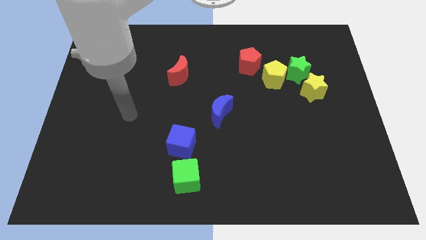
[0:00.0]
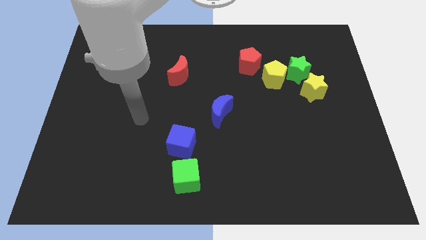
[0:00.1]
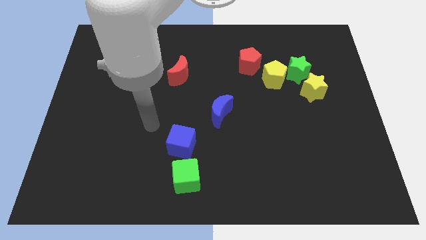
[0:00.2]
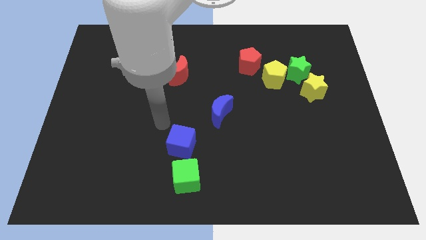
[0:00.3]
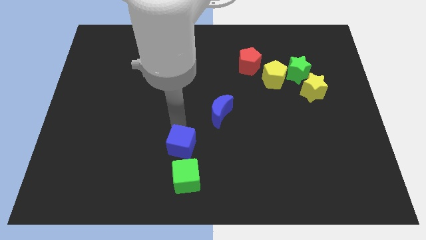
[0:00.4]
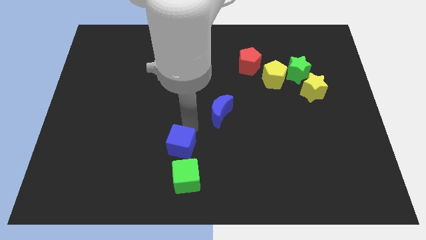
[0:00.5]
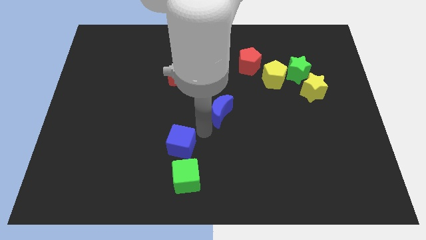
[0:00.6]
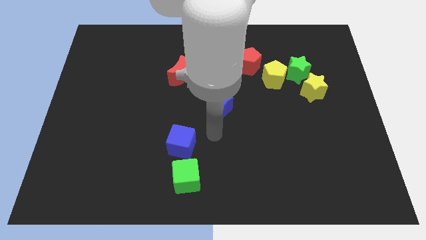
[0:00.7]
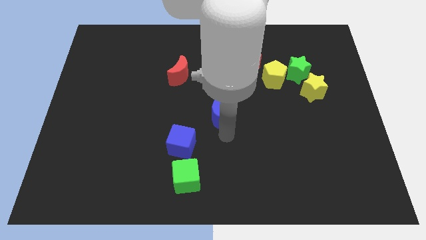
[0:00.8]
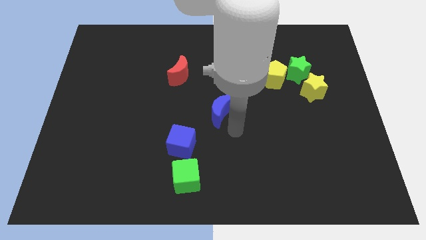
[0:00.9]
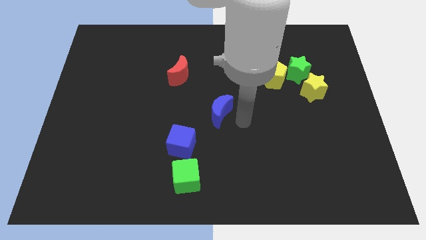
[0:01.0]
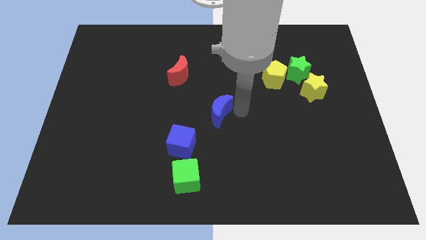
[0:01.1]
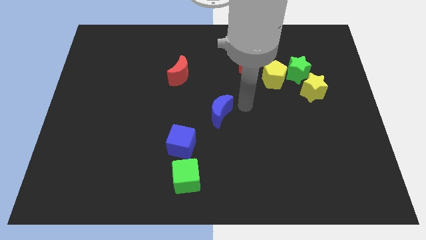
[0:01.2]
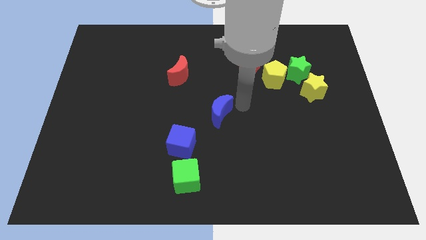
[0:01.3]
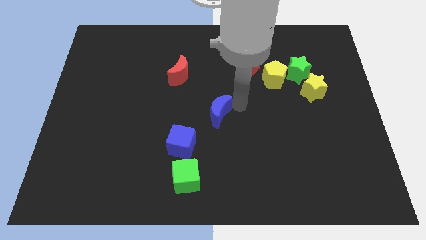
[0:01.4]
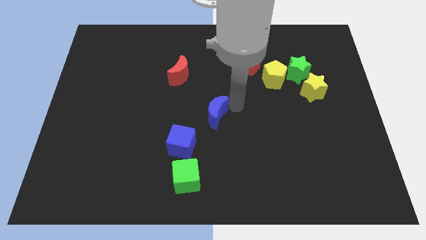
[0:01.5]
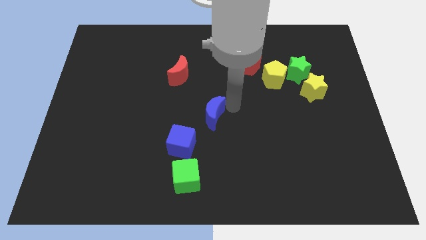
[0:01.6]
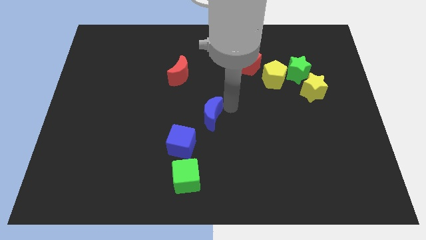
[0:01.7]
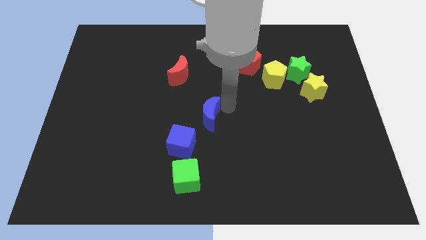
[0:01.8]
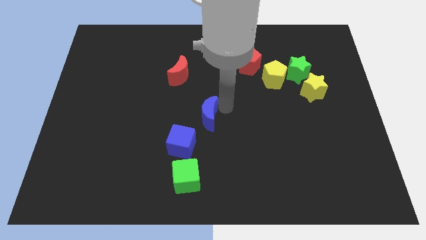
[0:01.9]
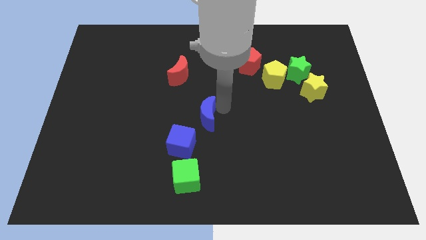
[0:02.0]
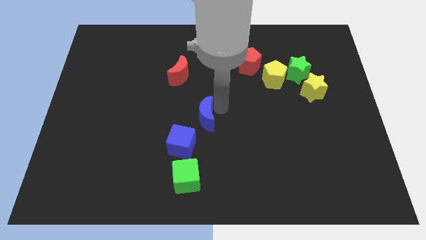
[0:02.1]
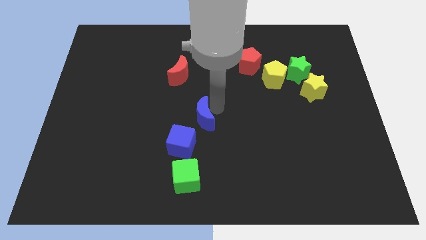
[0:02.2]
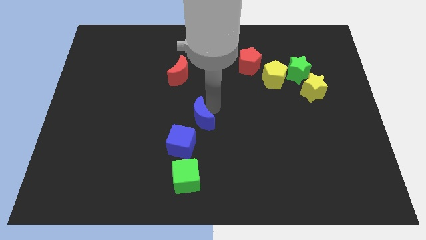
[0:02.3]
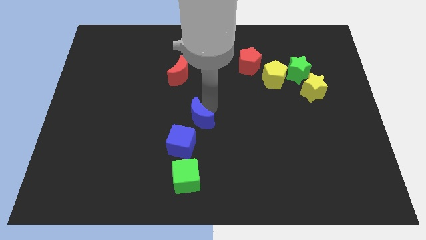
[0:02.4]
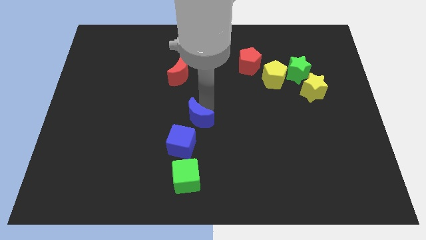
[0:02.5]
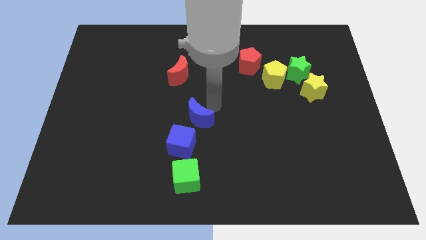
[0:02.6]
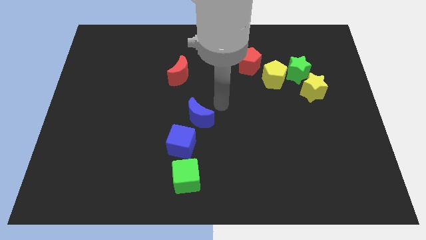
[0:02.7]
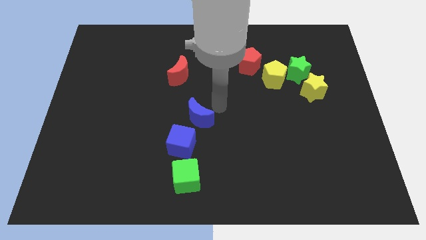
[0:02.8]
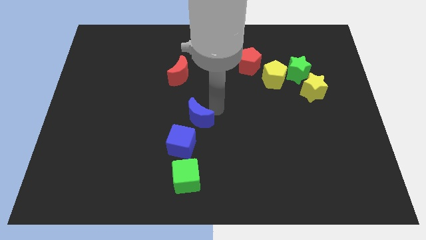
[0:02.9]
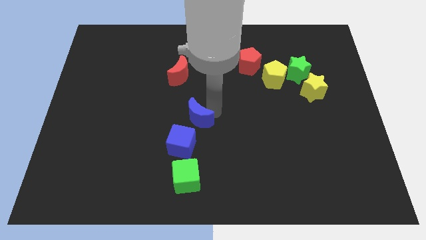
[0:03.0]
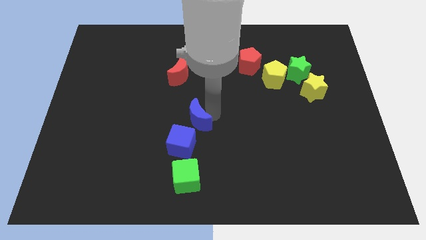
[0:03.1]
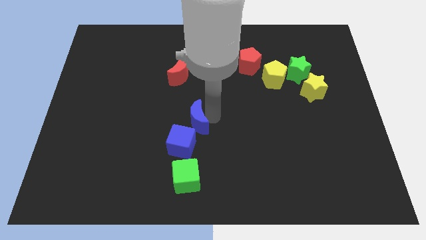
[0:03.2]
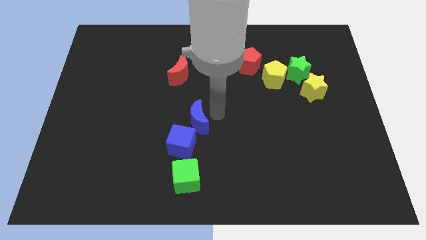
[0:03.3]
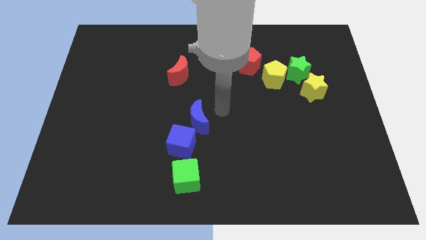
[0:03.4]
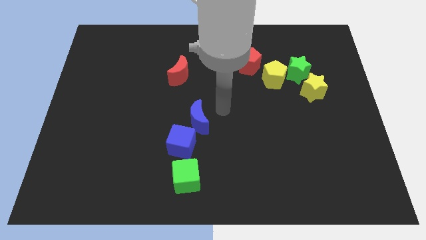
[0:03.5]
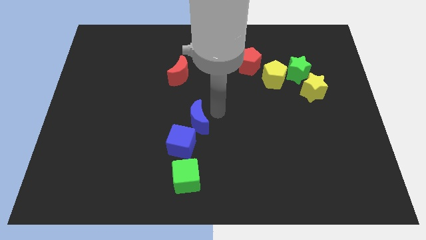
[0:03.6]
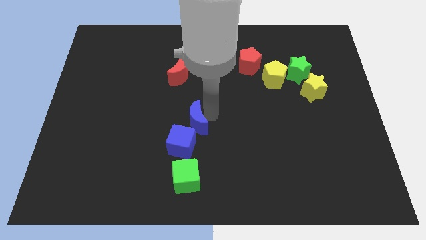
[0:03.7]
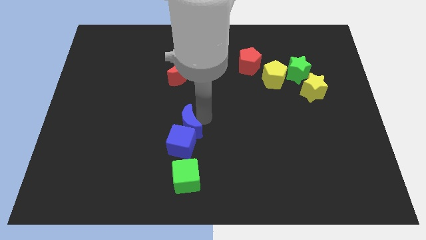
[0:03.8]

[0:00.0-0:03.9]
slide the blue moon down and then to the left a little bit

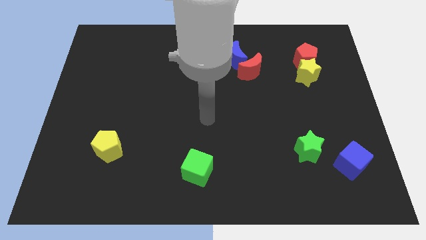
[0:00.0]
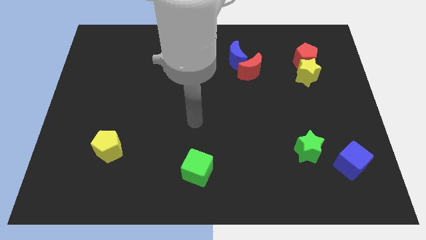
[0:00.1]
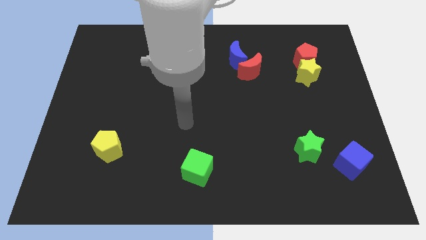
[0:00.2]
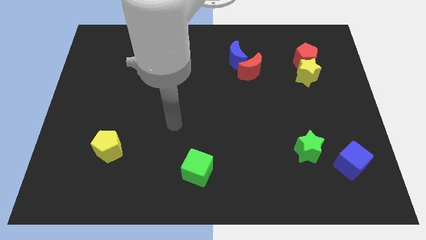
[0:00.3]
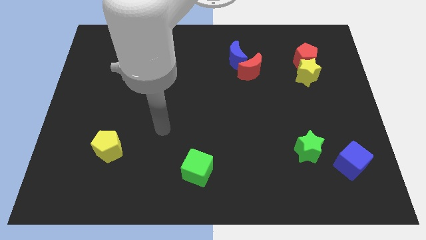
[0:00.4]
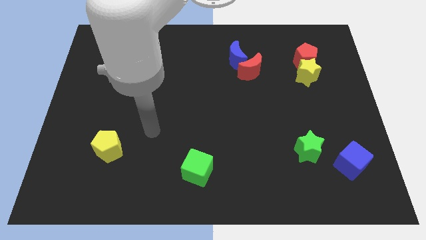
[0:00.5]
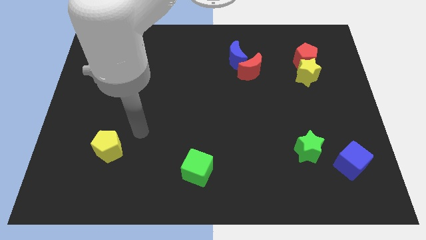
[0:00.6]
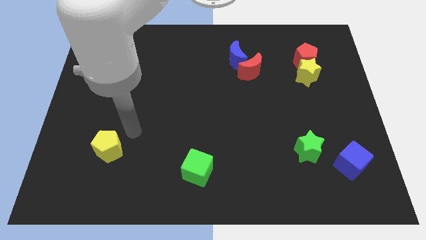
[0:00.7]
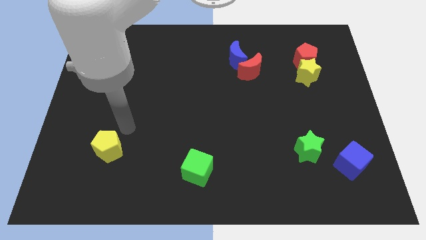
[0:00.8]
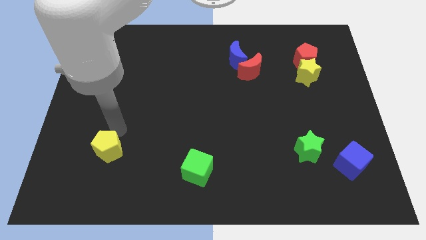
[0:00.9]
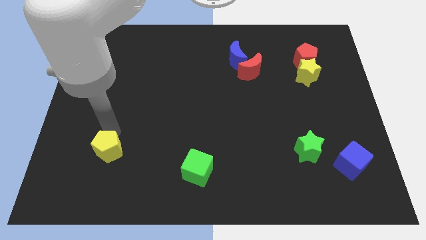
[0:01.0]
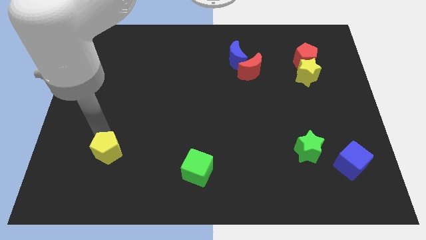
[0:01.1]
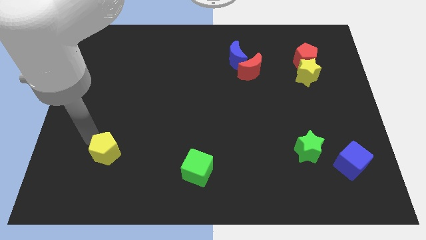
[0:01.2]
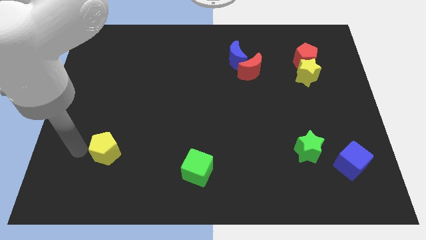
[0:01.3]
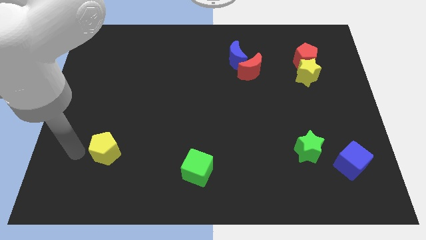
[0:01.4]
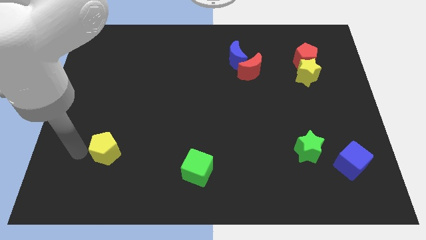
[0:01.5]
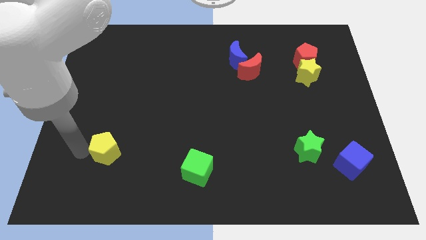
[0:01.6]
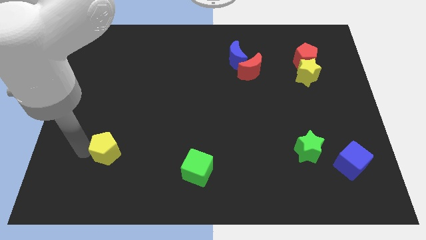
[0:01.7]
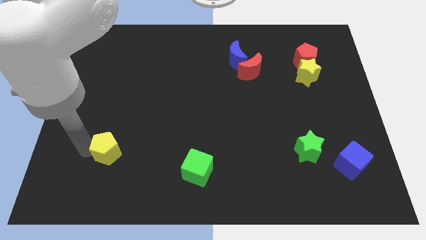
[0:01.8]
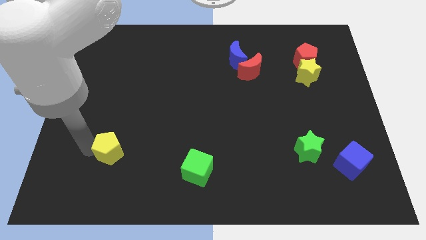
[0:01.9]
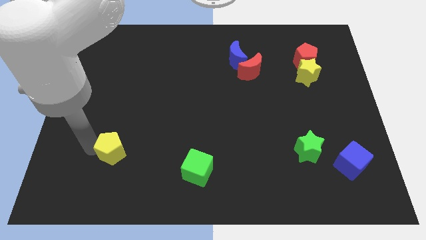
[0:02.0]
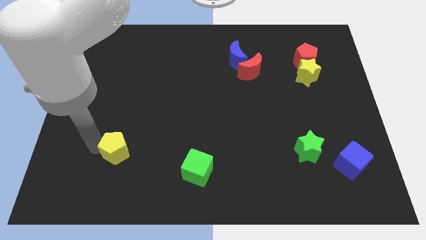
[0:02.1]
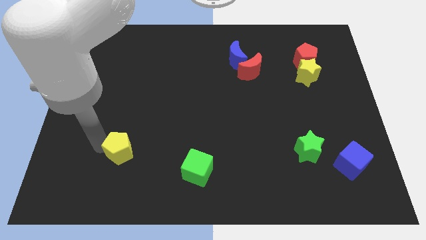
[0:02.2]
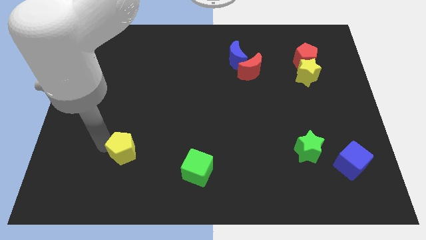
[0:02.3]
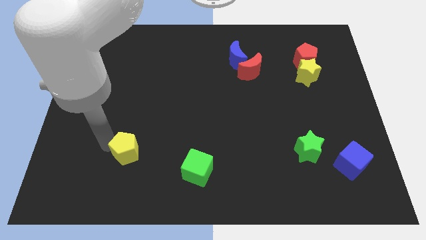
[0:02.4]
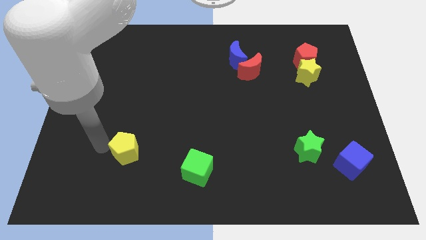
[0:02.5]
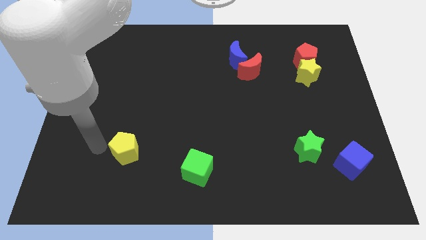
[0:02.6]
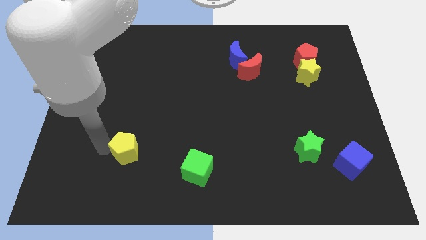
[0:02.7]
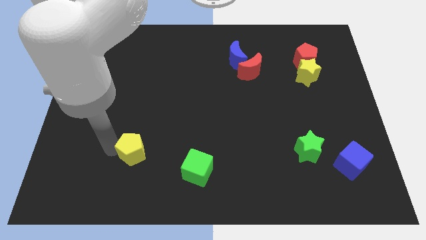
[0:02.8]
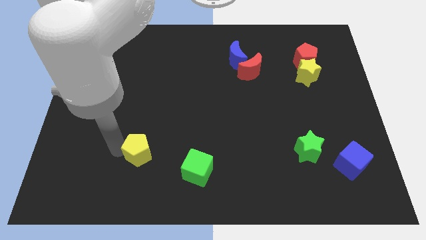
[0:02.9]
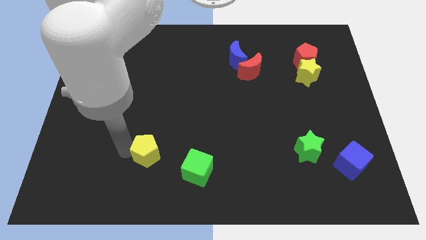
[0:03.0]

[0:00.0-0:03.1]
slide the yellow pentagon to the right a little

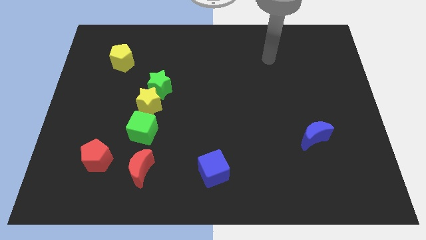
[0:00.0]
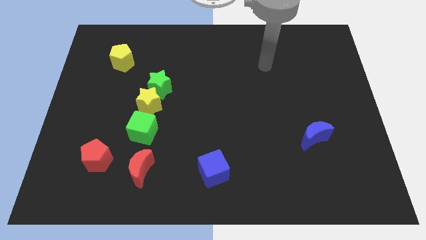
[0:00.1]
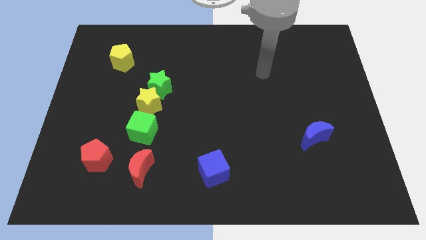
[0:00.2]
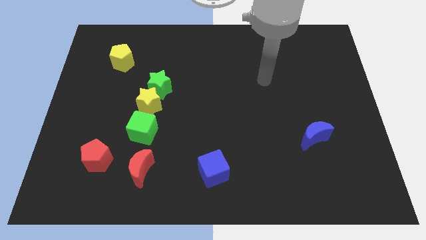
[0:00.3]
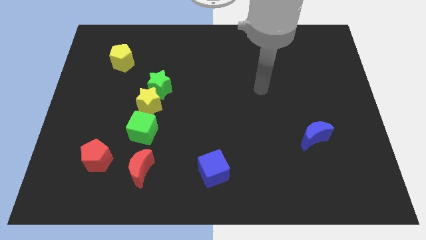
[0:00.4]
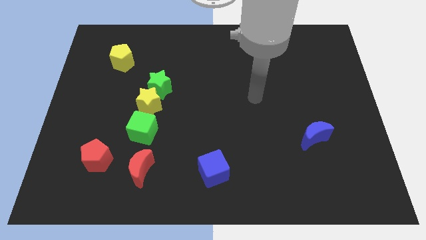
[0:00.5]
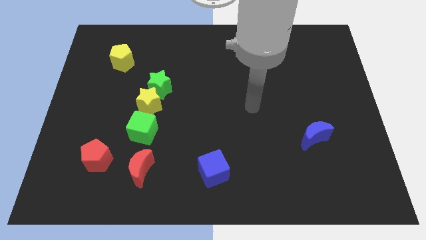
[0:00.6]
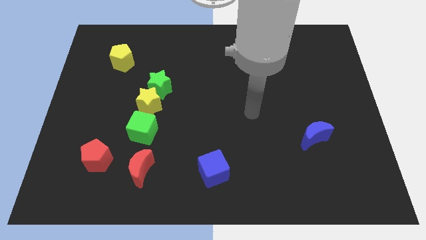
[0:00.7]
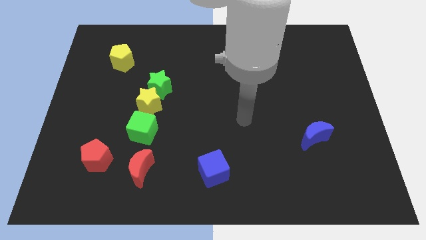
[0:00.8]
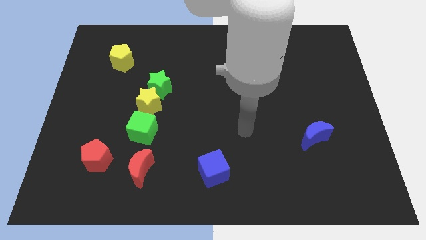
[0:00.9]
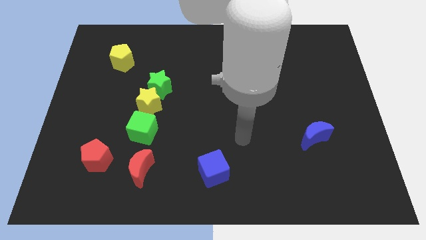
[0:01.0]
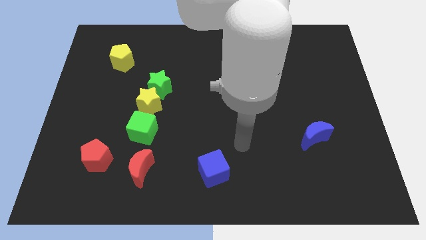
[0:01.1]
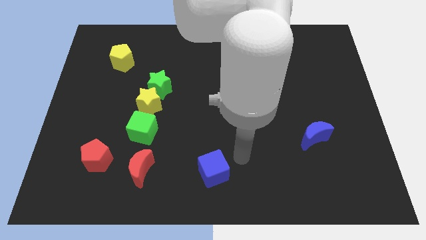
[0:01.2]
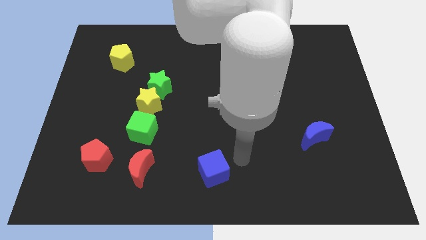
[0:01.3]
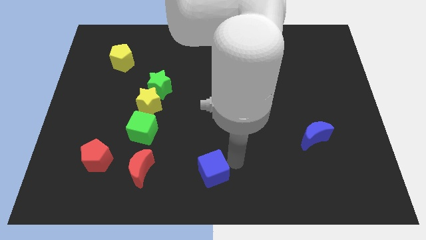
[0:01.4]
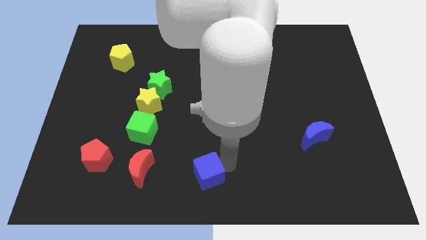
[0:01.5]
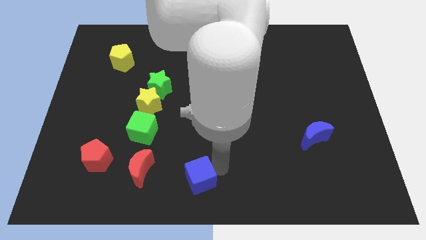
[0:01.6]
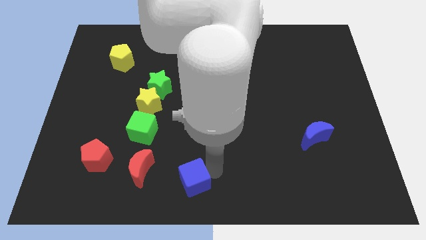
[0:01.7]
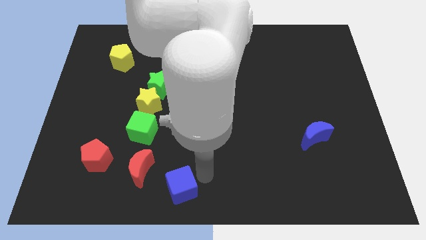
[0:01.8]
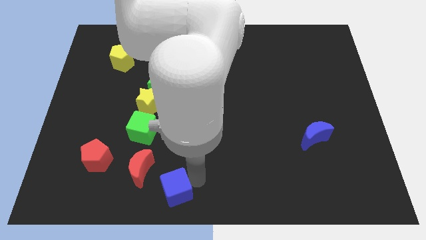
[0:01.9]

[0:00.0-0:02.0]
push the blue cube left somewhat
